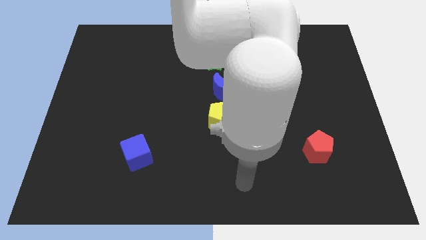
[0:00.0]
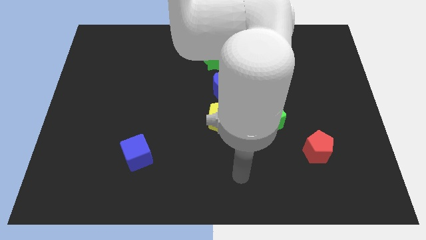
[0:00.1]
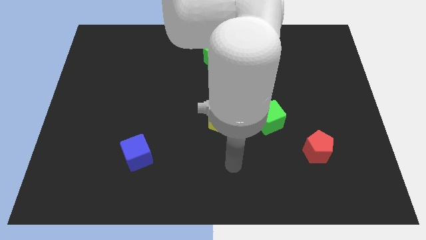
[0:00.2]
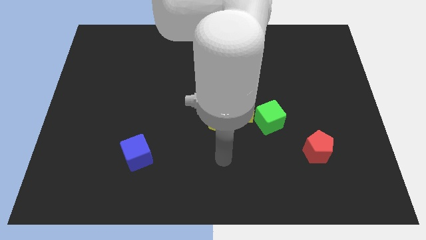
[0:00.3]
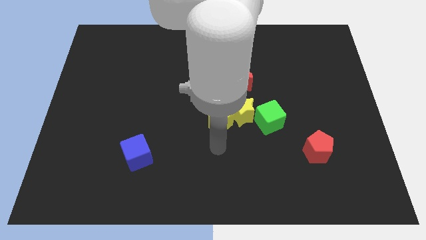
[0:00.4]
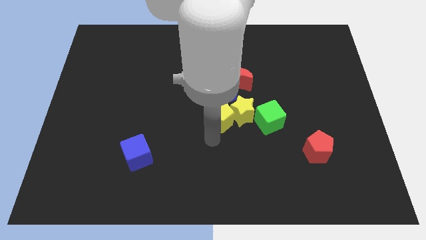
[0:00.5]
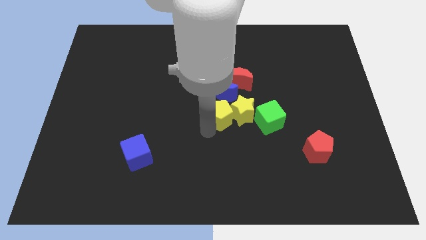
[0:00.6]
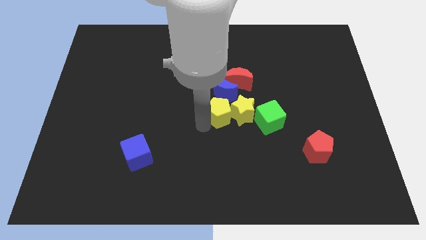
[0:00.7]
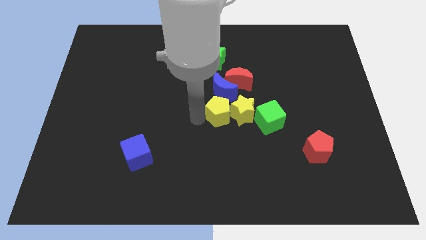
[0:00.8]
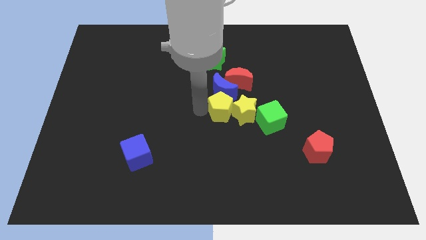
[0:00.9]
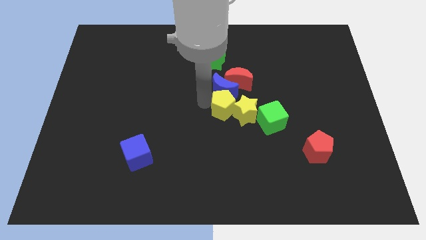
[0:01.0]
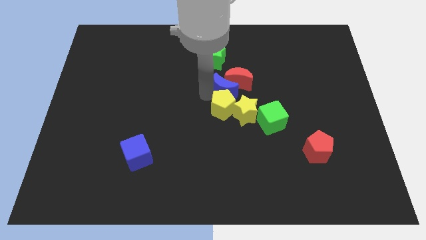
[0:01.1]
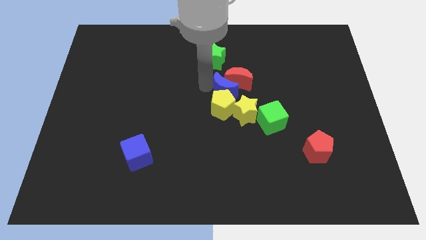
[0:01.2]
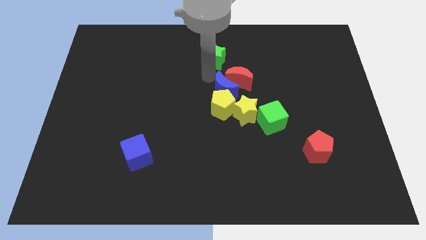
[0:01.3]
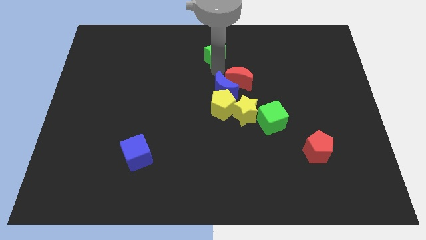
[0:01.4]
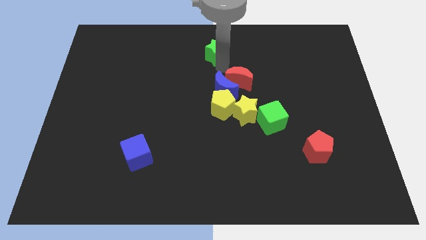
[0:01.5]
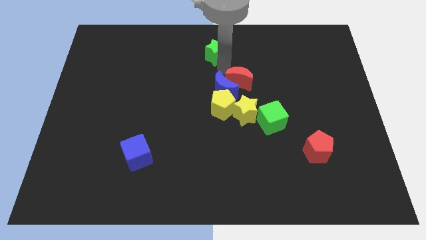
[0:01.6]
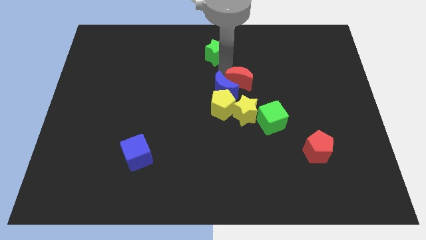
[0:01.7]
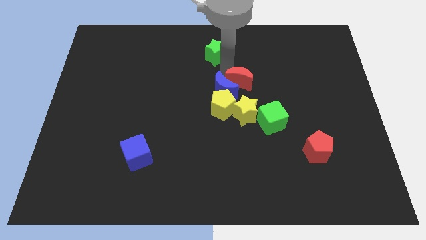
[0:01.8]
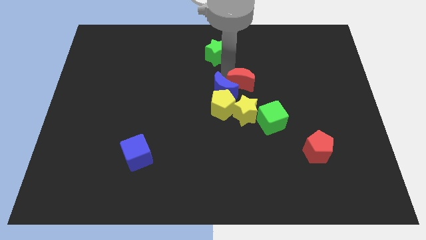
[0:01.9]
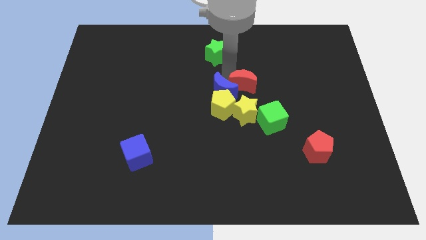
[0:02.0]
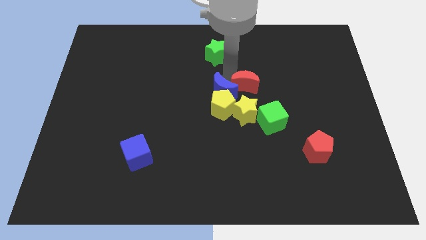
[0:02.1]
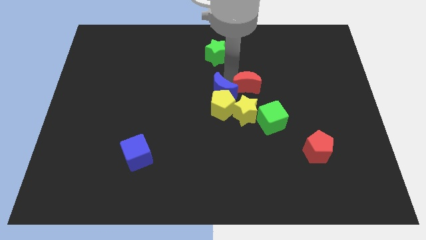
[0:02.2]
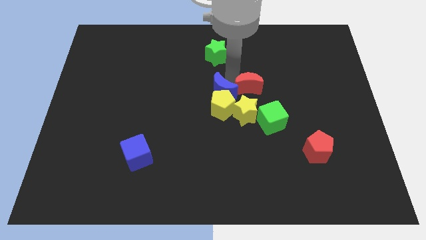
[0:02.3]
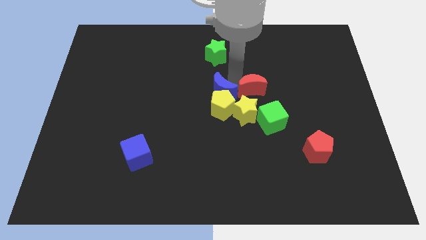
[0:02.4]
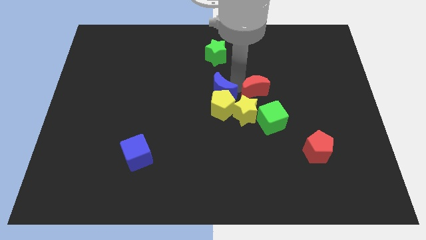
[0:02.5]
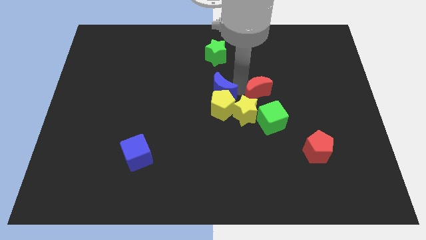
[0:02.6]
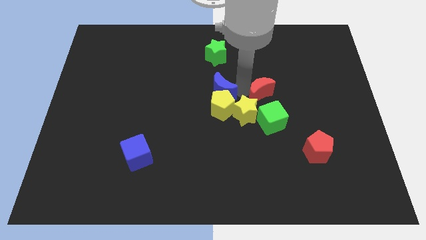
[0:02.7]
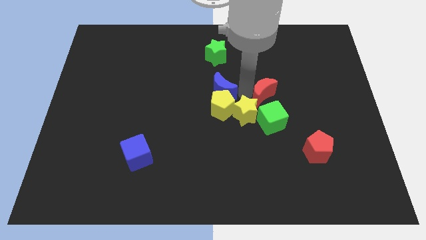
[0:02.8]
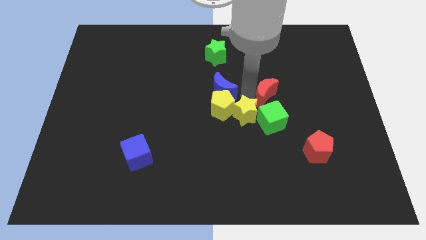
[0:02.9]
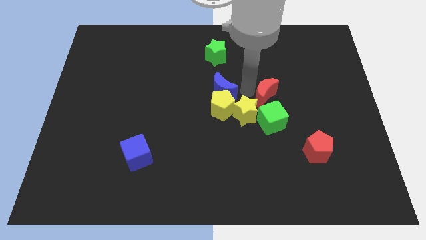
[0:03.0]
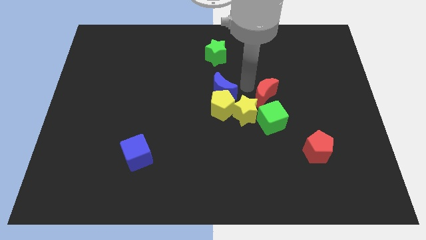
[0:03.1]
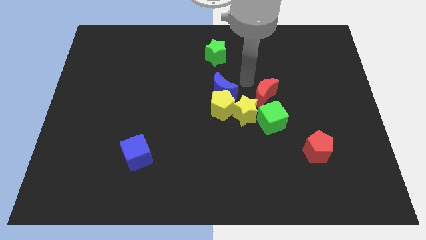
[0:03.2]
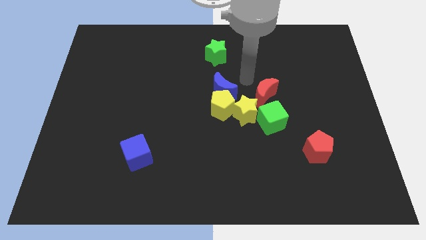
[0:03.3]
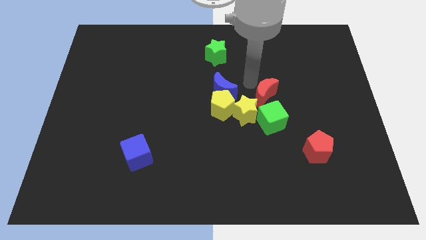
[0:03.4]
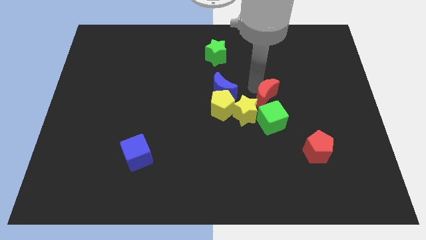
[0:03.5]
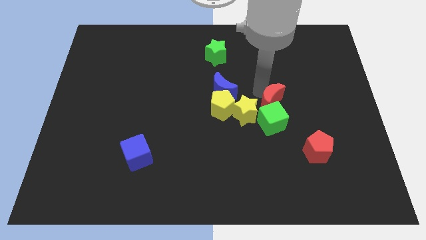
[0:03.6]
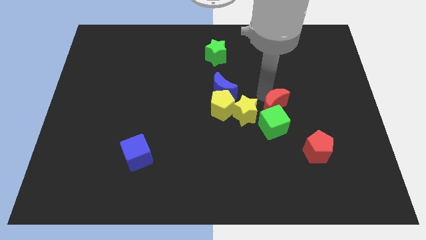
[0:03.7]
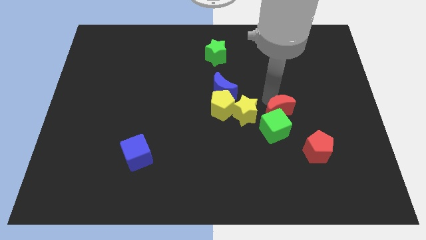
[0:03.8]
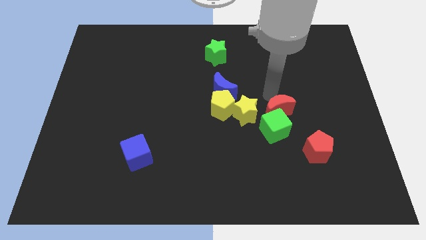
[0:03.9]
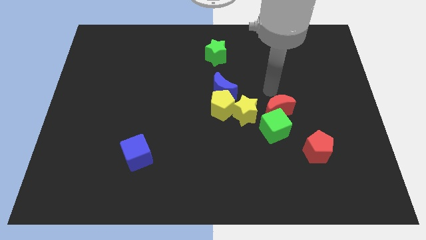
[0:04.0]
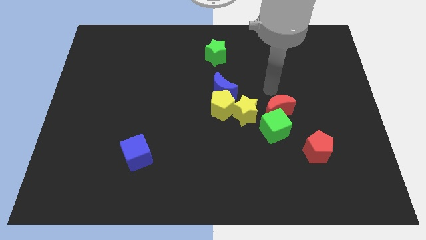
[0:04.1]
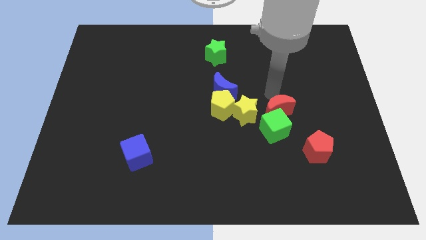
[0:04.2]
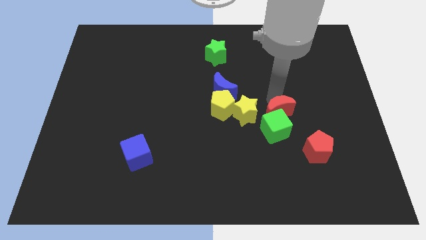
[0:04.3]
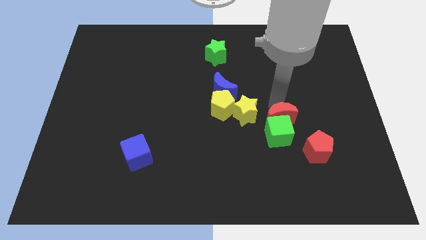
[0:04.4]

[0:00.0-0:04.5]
slightly push the red moon downwards

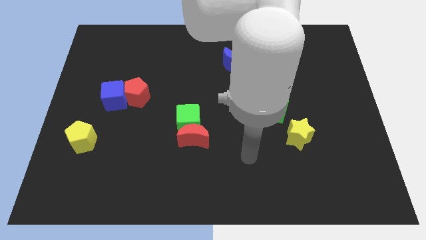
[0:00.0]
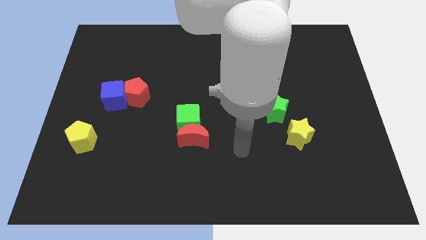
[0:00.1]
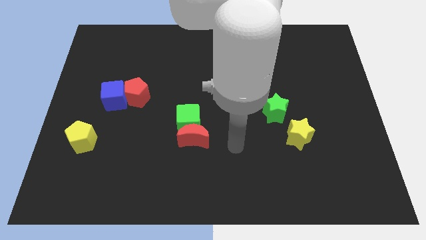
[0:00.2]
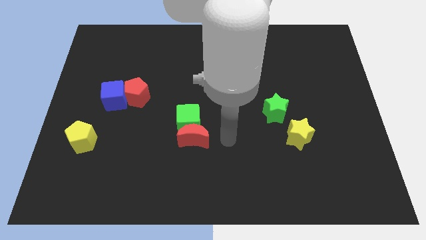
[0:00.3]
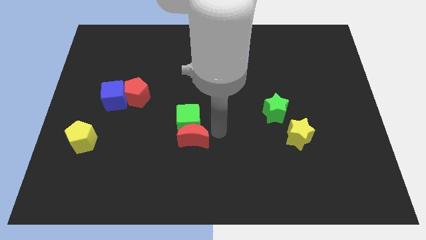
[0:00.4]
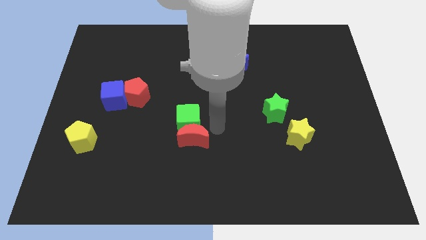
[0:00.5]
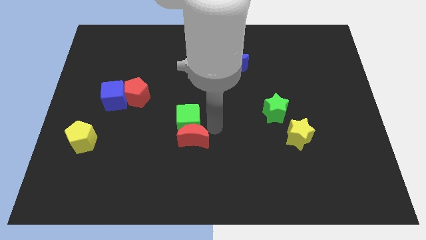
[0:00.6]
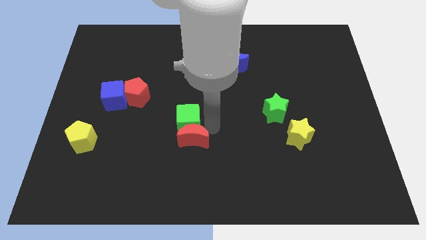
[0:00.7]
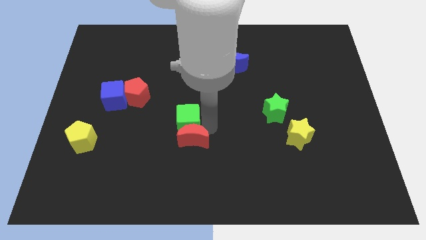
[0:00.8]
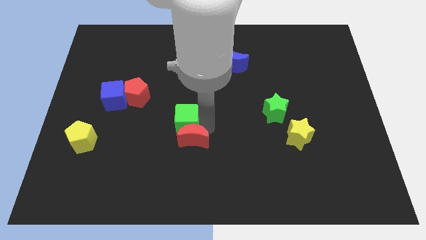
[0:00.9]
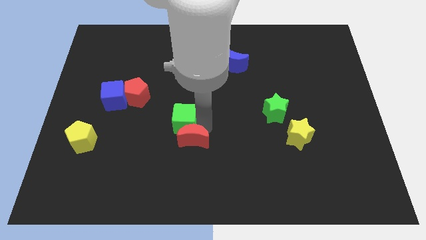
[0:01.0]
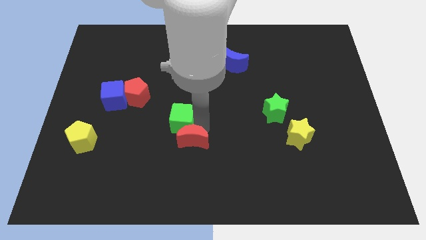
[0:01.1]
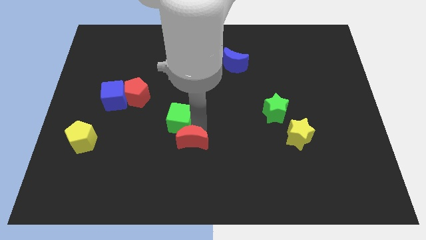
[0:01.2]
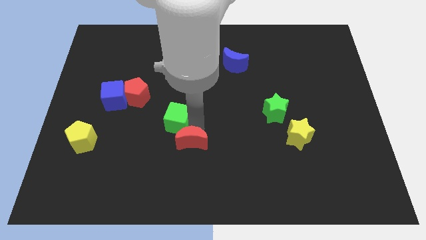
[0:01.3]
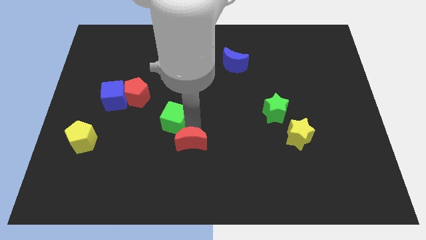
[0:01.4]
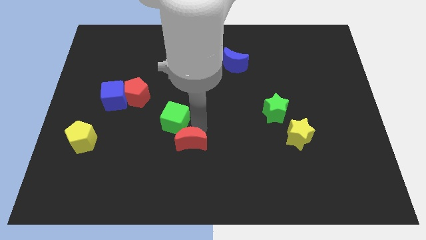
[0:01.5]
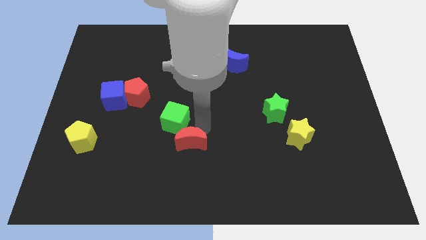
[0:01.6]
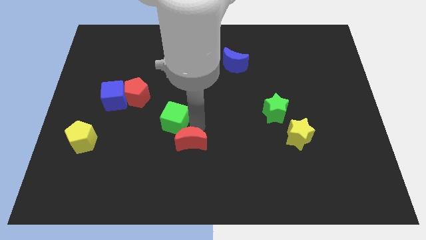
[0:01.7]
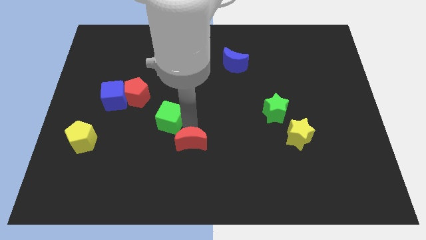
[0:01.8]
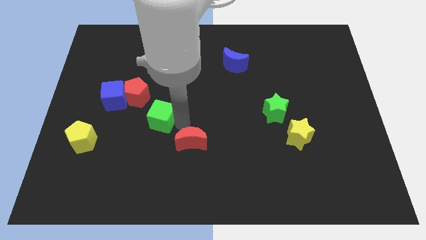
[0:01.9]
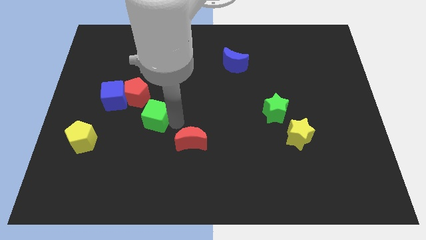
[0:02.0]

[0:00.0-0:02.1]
push the green cube a bit left

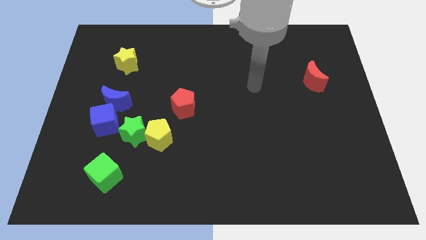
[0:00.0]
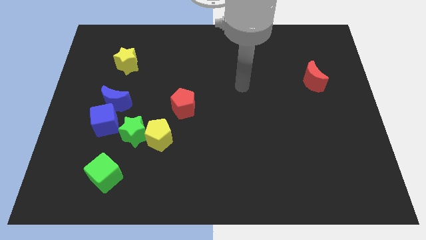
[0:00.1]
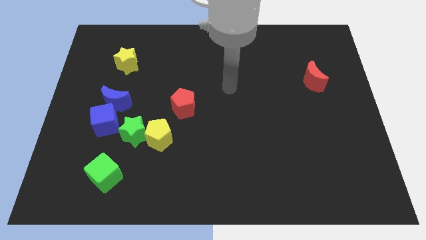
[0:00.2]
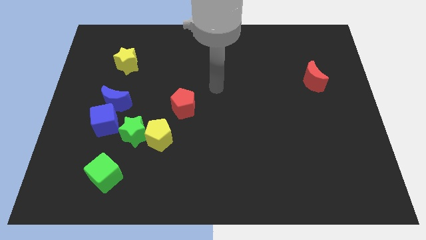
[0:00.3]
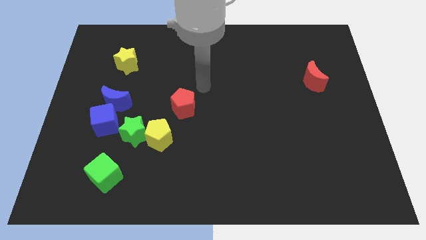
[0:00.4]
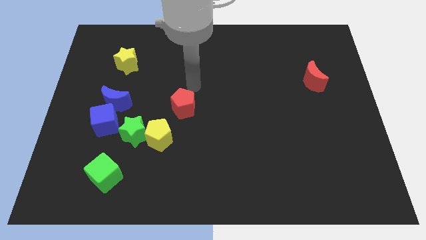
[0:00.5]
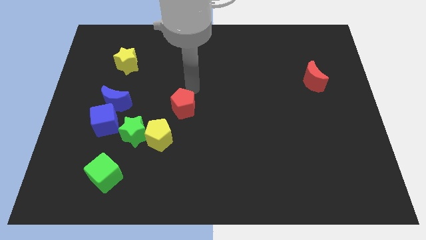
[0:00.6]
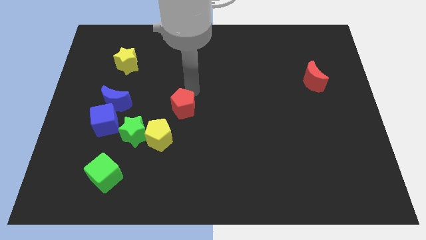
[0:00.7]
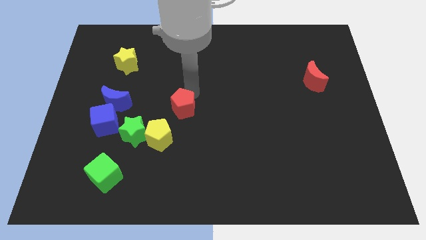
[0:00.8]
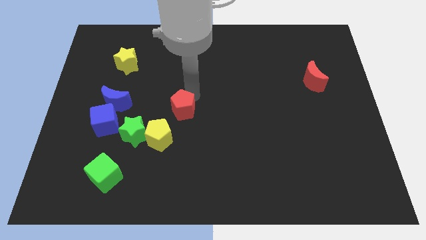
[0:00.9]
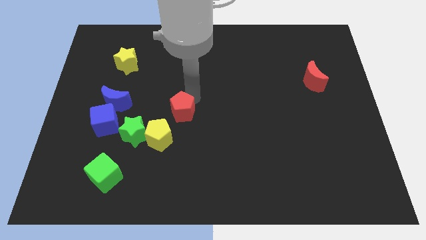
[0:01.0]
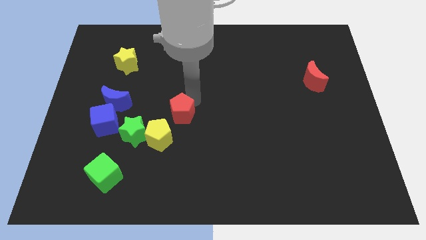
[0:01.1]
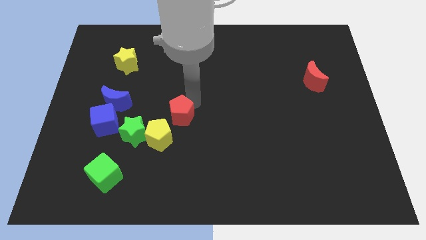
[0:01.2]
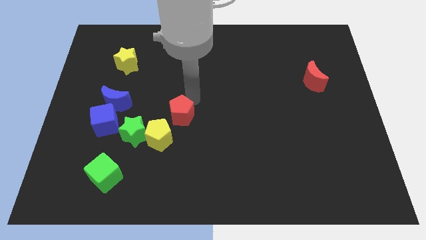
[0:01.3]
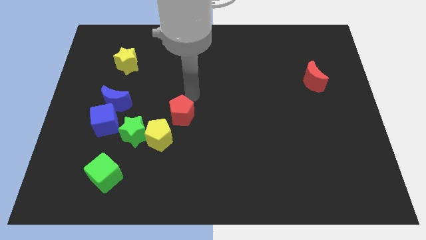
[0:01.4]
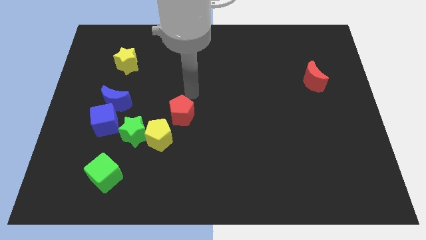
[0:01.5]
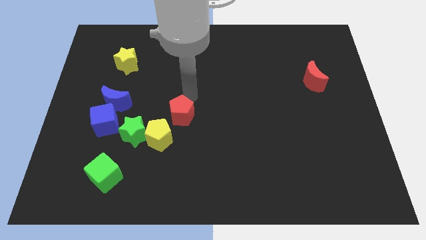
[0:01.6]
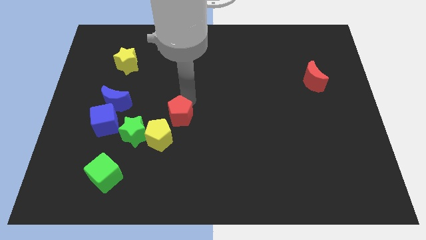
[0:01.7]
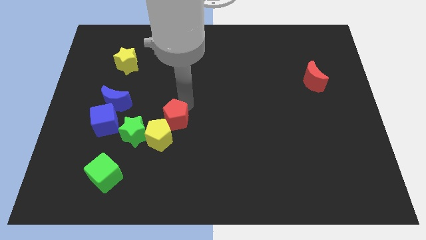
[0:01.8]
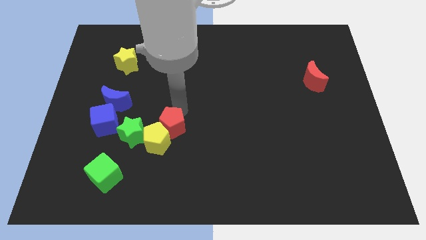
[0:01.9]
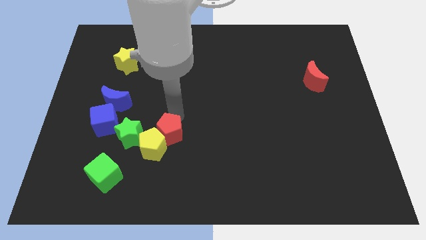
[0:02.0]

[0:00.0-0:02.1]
move the red pentagon a little down
